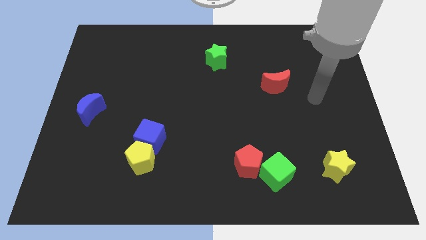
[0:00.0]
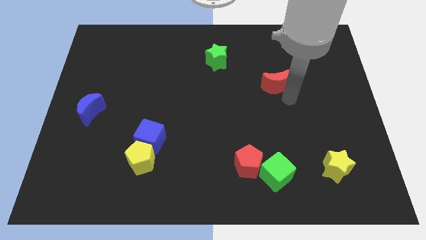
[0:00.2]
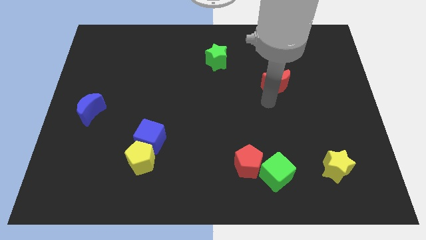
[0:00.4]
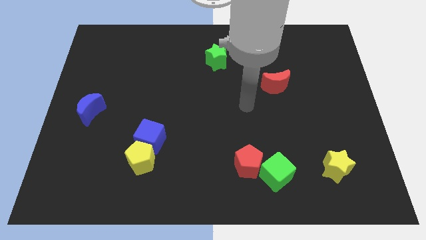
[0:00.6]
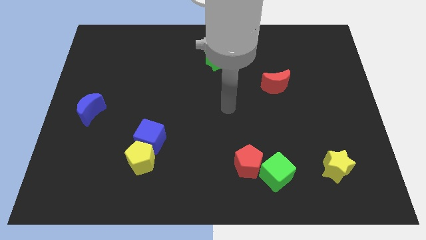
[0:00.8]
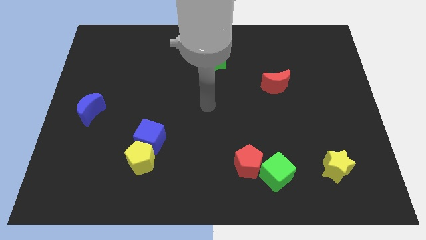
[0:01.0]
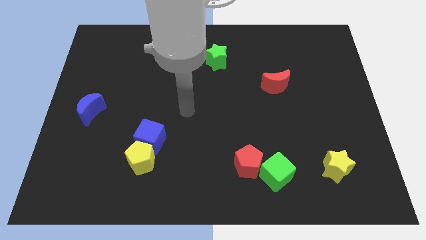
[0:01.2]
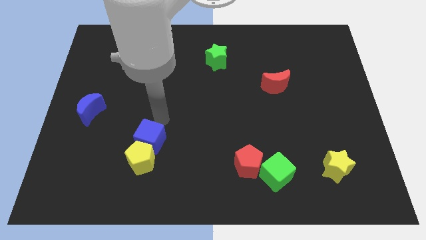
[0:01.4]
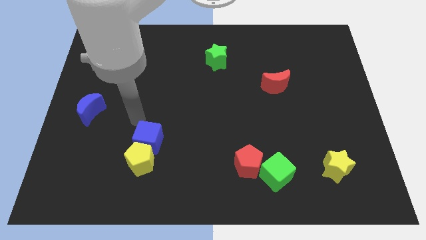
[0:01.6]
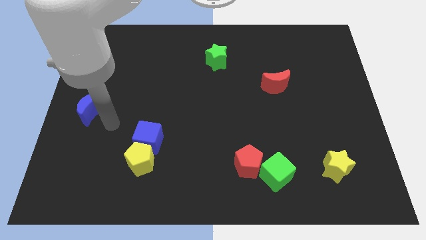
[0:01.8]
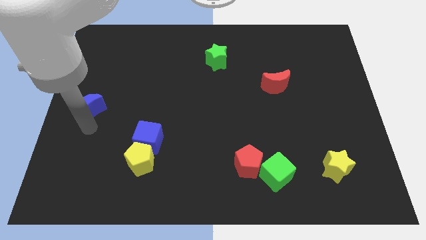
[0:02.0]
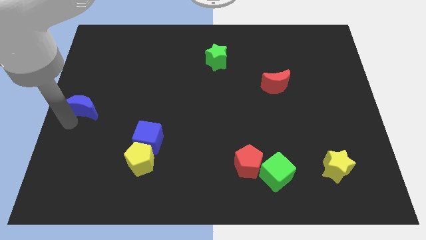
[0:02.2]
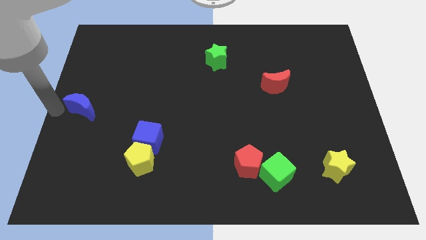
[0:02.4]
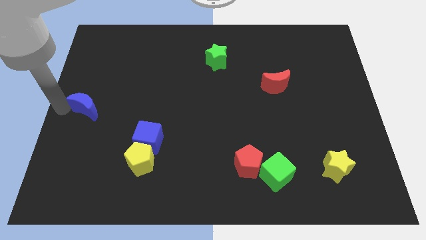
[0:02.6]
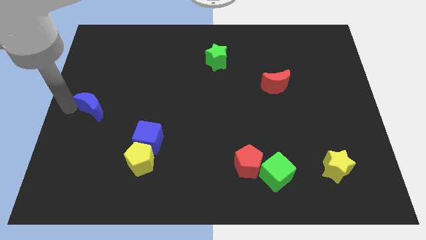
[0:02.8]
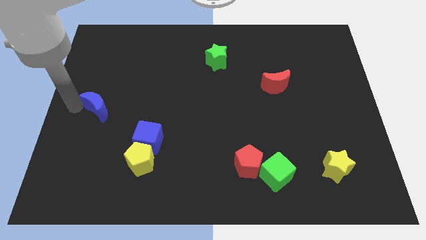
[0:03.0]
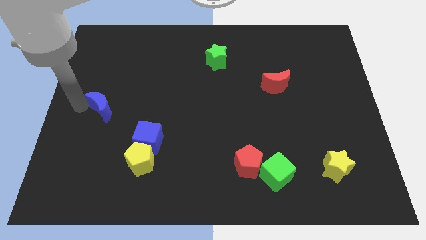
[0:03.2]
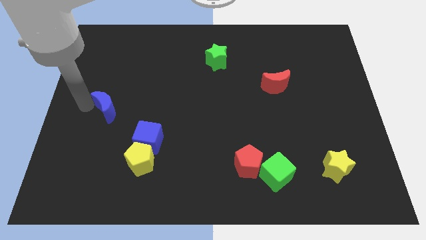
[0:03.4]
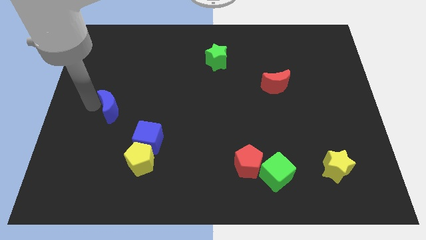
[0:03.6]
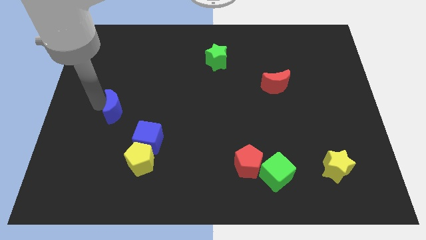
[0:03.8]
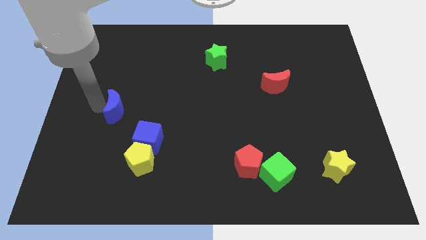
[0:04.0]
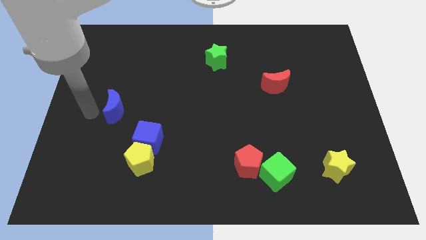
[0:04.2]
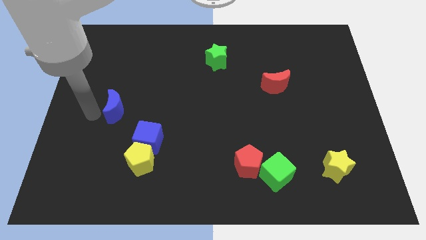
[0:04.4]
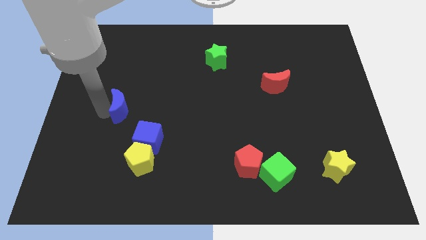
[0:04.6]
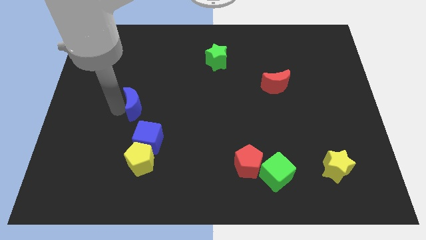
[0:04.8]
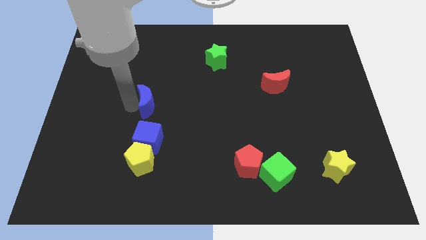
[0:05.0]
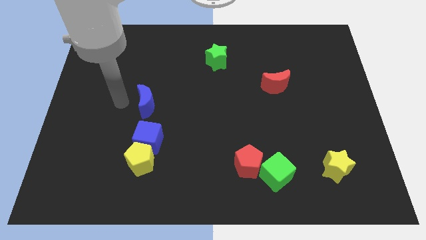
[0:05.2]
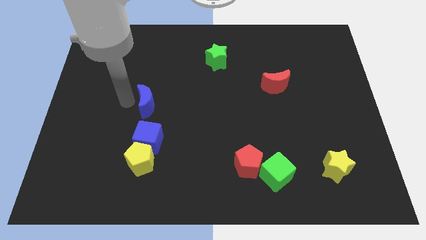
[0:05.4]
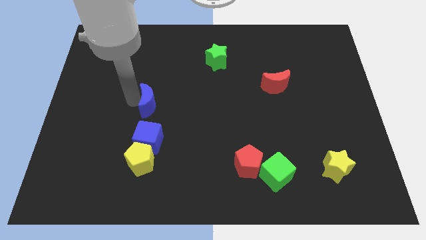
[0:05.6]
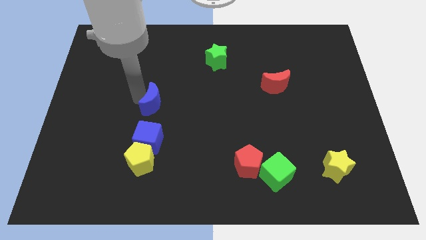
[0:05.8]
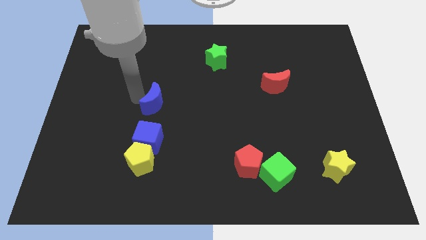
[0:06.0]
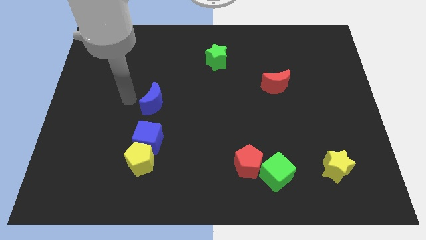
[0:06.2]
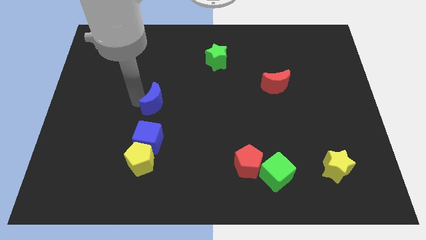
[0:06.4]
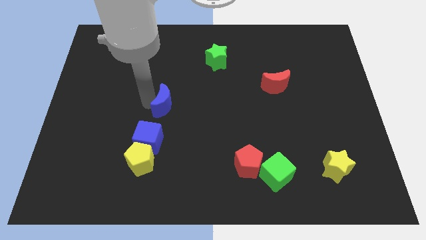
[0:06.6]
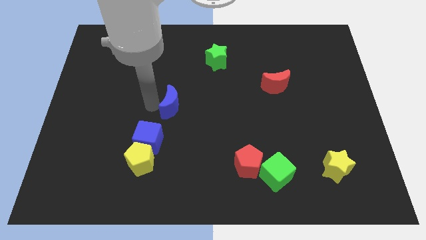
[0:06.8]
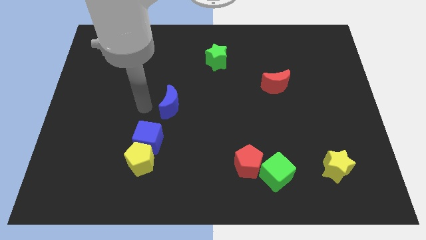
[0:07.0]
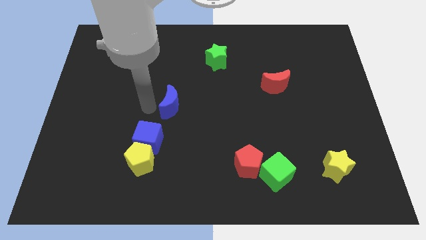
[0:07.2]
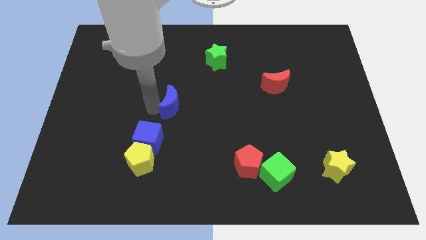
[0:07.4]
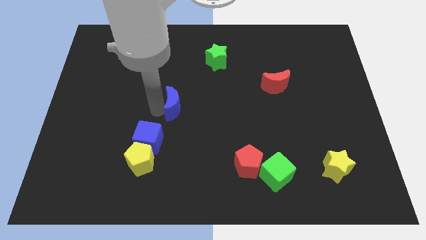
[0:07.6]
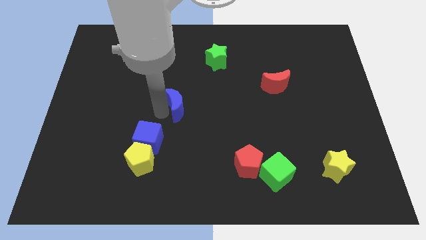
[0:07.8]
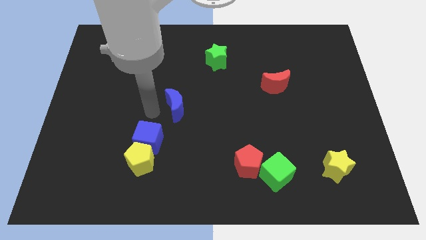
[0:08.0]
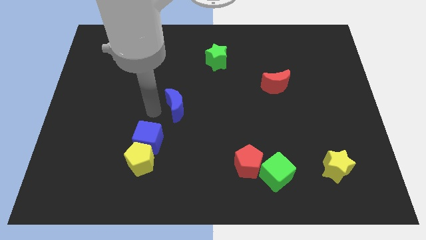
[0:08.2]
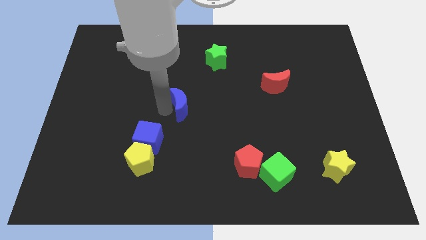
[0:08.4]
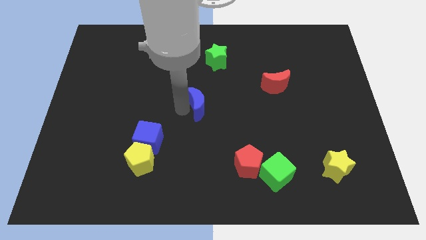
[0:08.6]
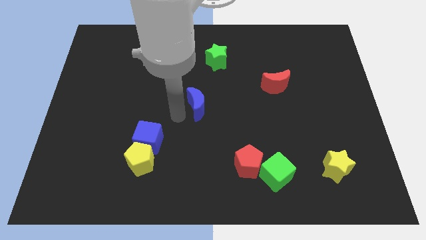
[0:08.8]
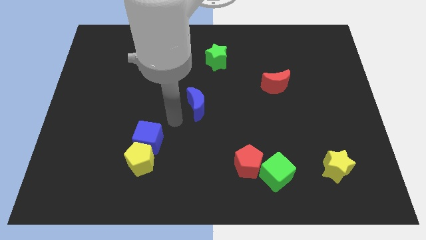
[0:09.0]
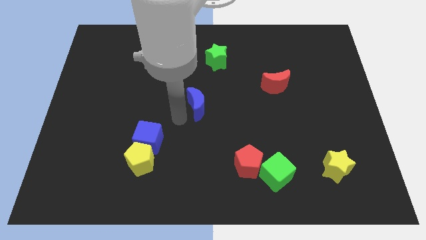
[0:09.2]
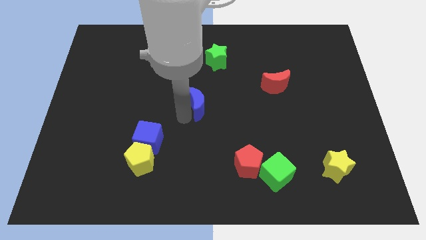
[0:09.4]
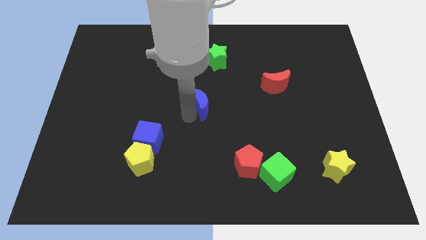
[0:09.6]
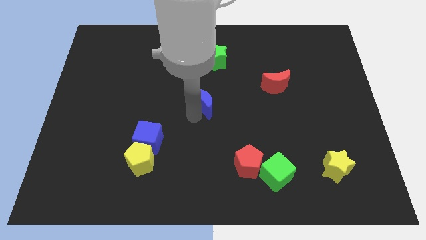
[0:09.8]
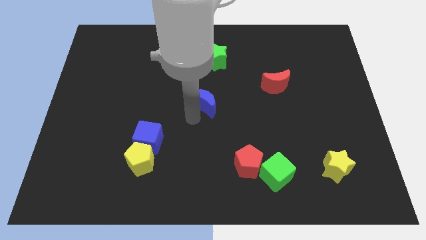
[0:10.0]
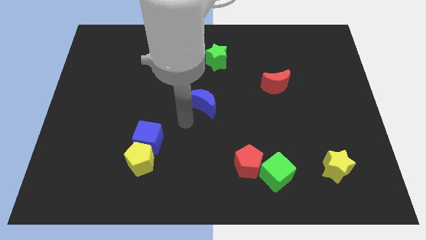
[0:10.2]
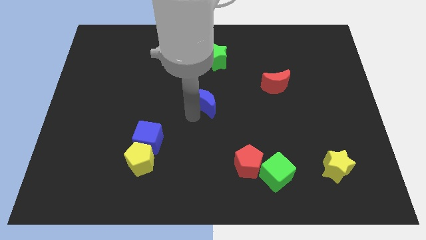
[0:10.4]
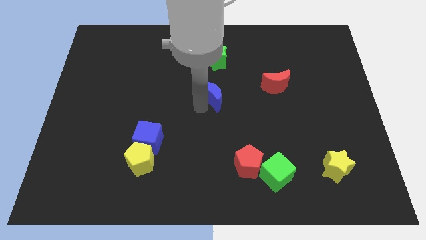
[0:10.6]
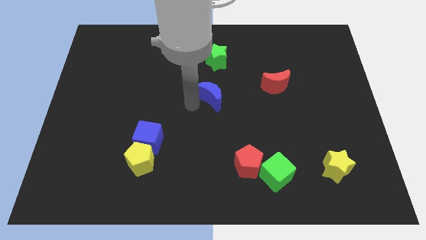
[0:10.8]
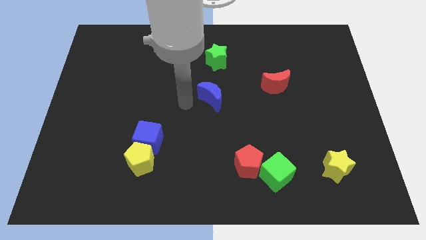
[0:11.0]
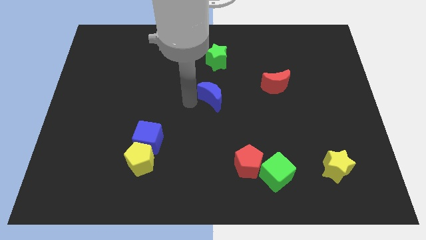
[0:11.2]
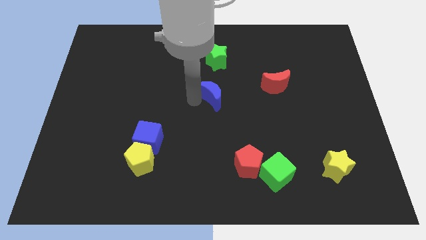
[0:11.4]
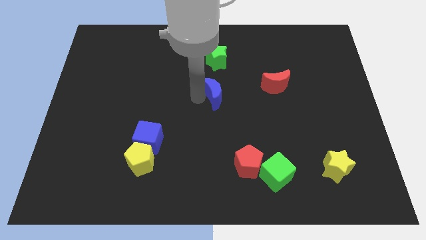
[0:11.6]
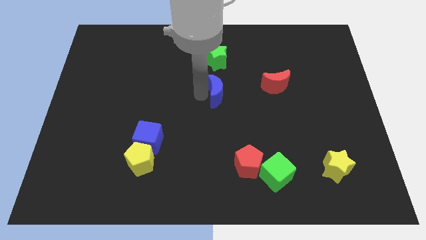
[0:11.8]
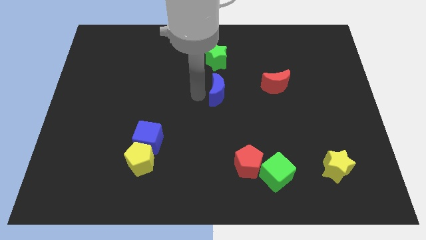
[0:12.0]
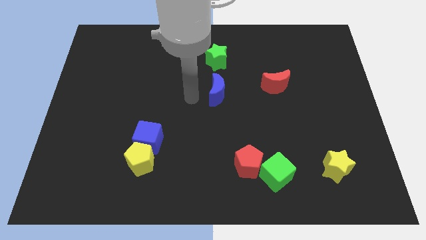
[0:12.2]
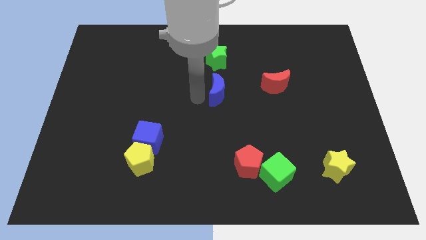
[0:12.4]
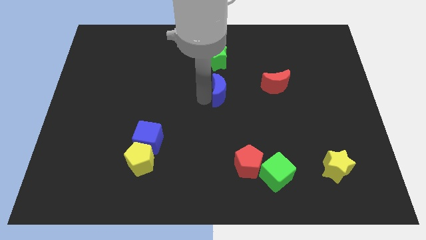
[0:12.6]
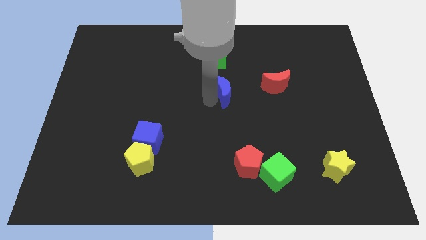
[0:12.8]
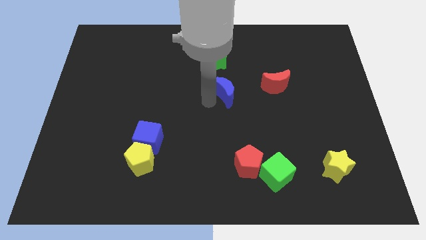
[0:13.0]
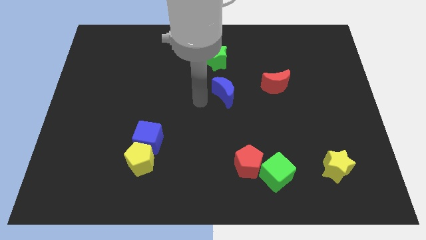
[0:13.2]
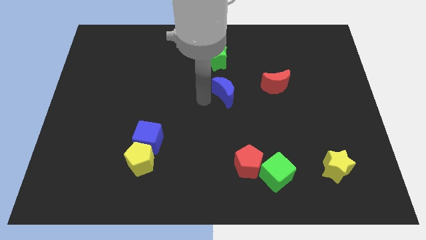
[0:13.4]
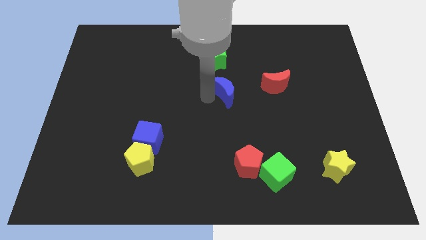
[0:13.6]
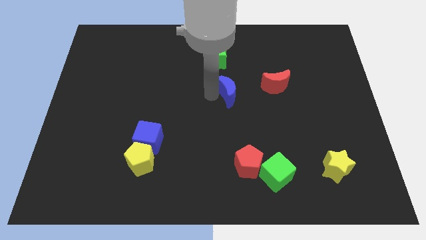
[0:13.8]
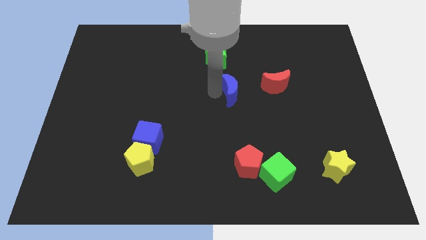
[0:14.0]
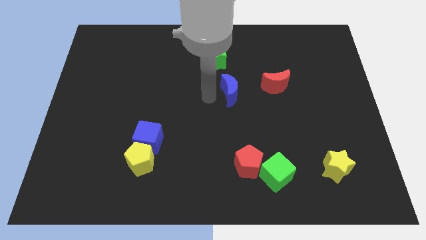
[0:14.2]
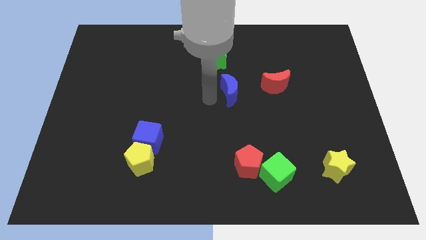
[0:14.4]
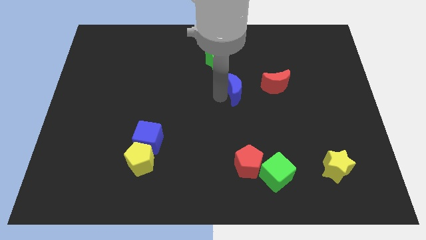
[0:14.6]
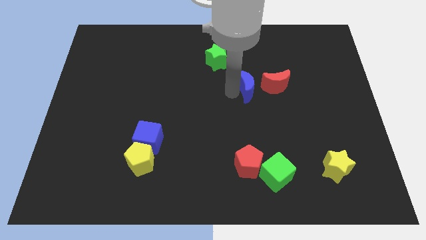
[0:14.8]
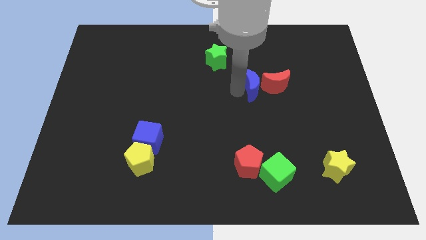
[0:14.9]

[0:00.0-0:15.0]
move the blue moon next to the red moon
